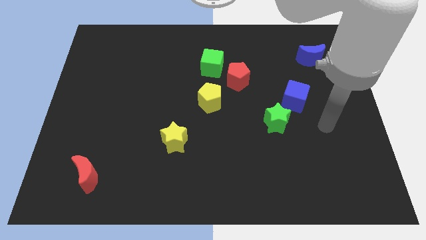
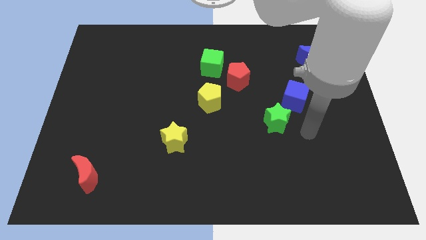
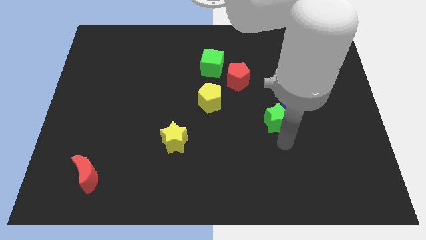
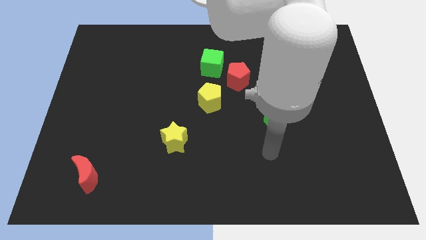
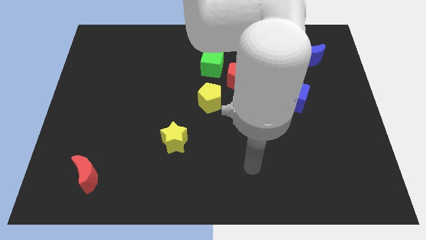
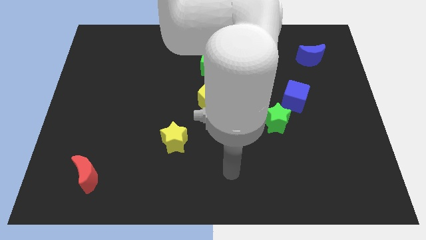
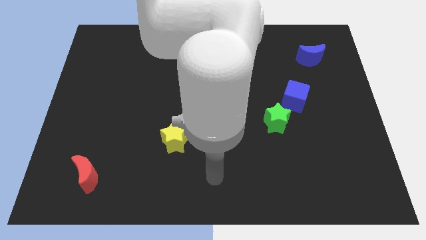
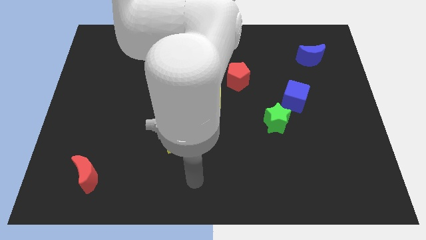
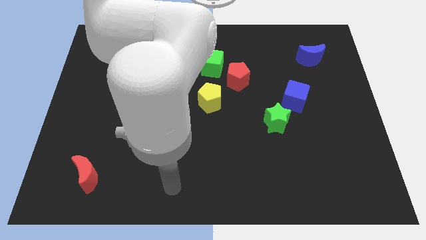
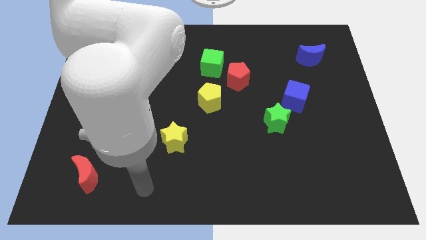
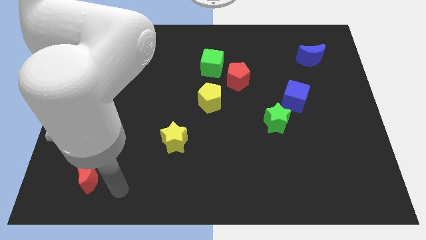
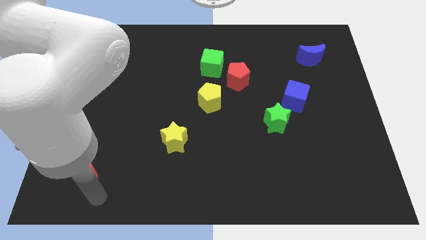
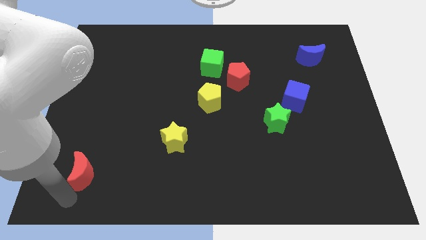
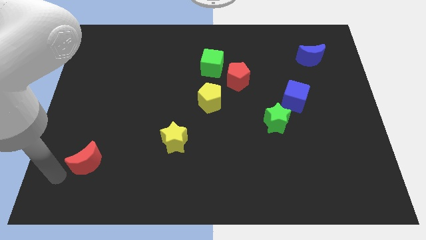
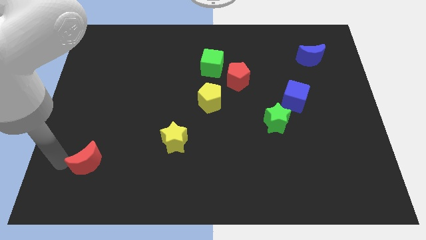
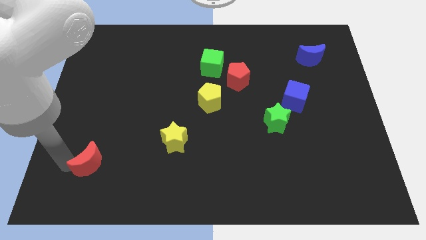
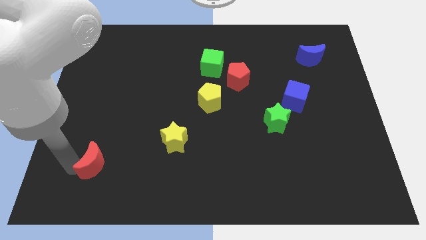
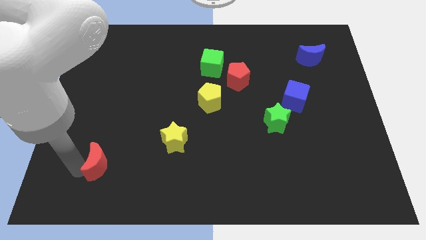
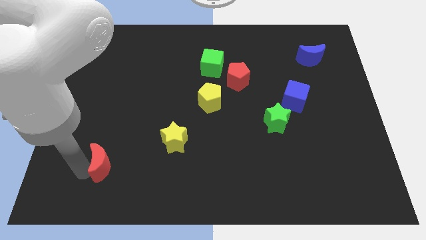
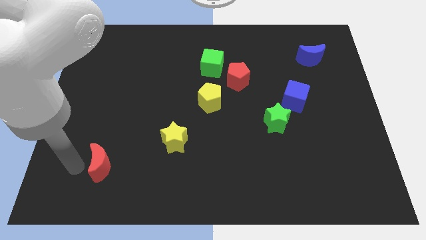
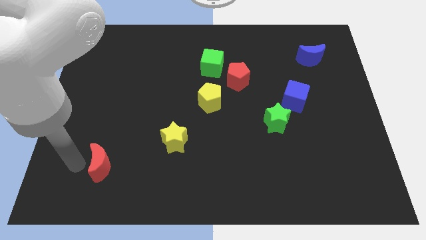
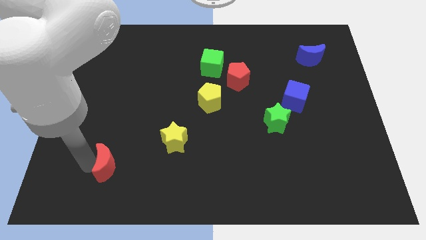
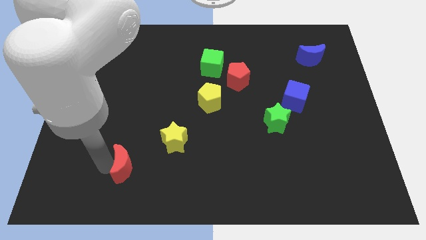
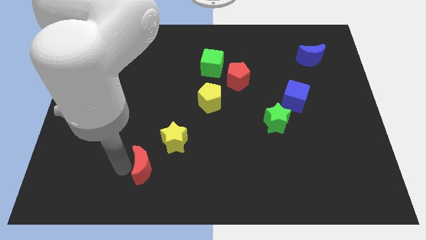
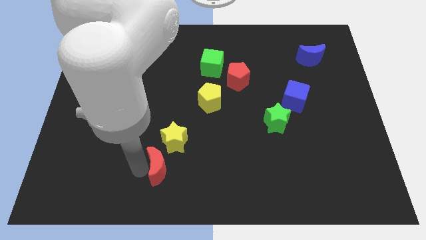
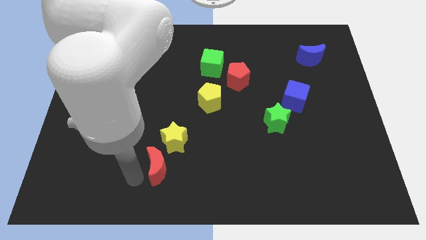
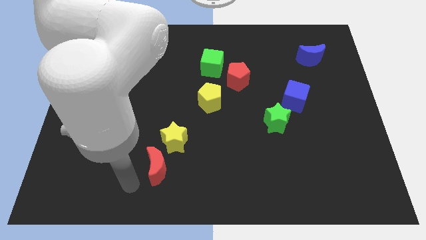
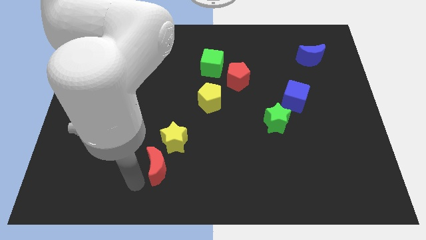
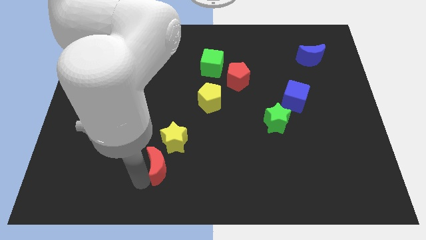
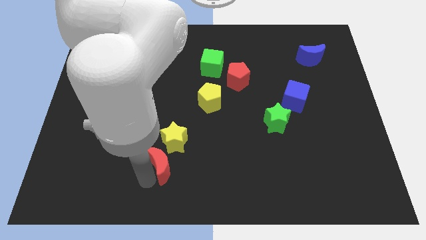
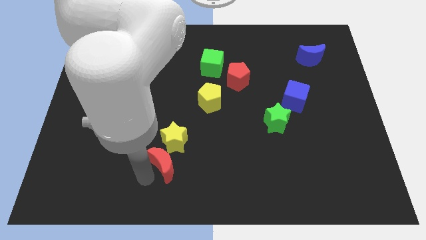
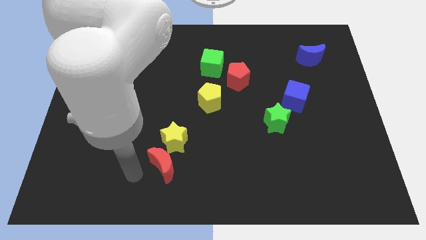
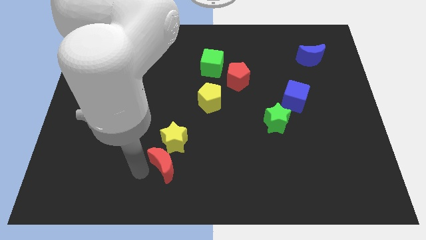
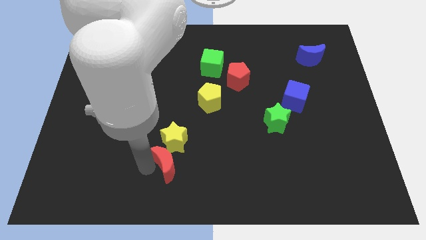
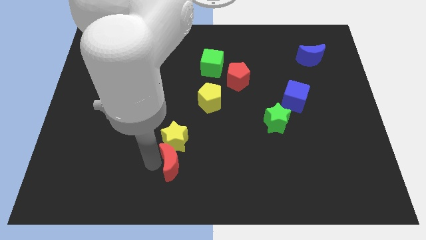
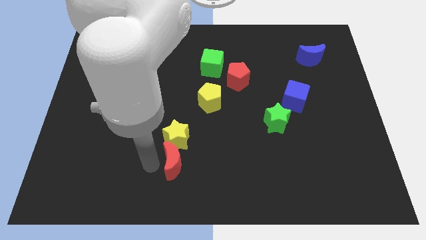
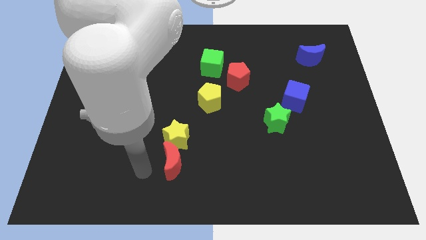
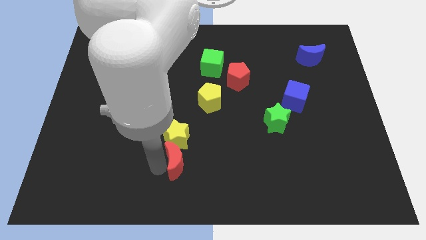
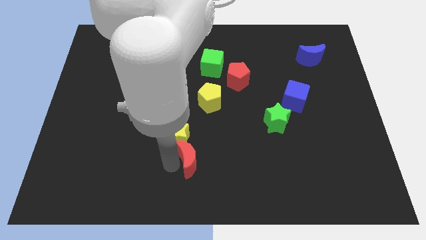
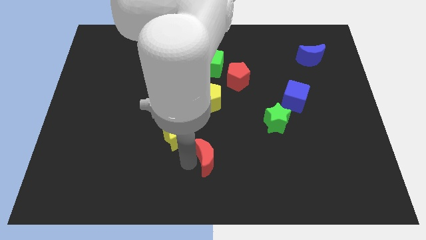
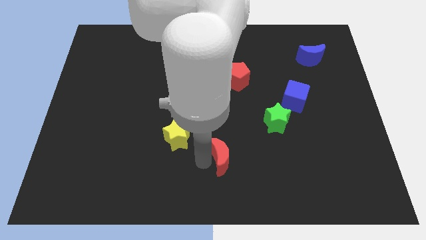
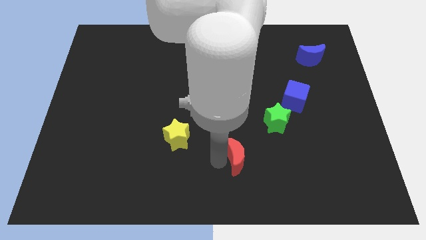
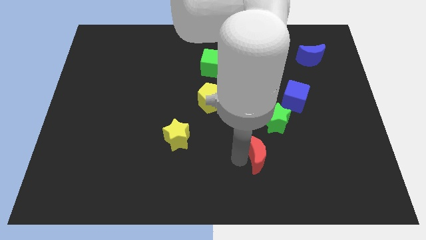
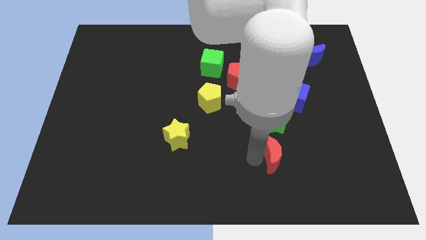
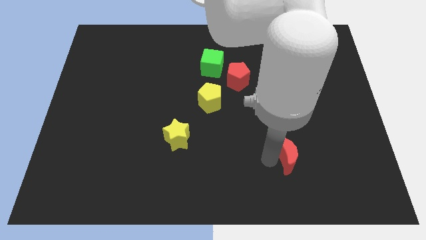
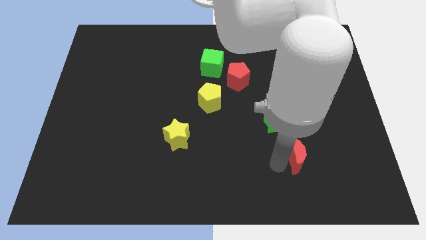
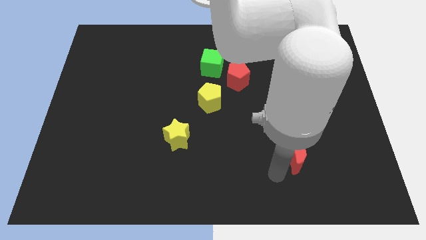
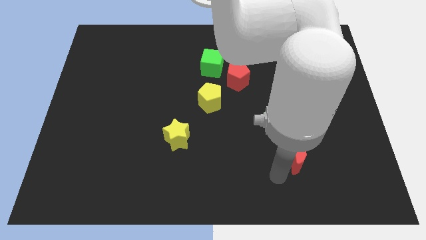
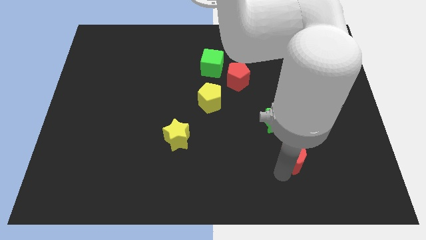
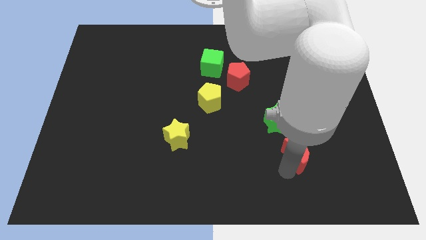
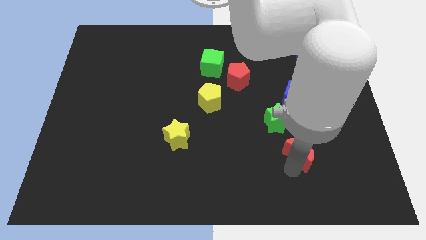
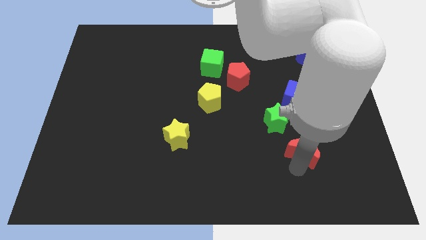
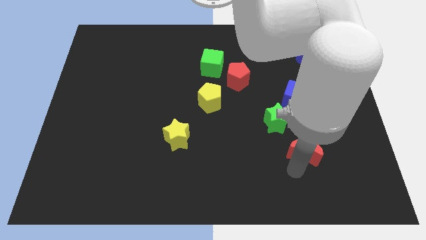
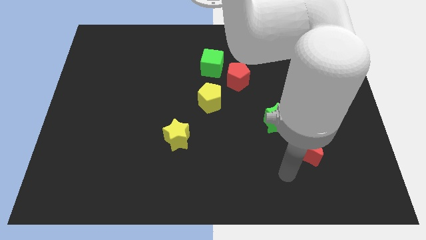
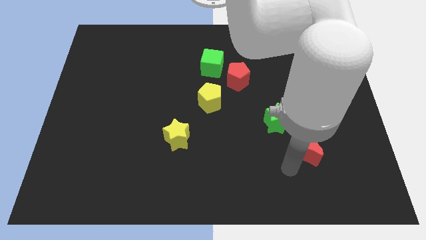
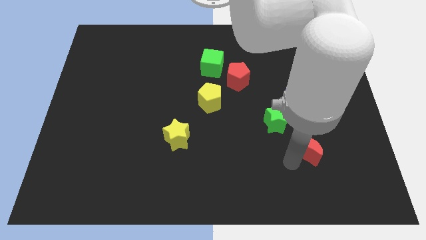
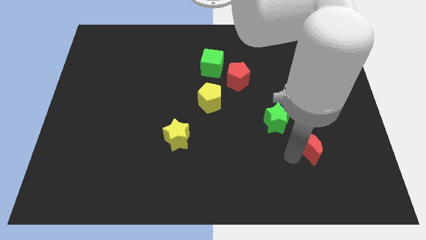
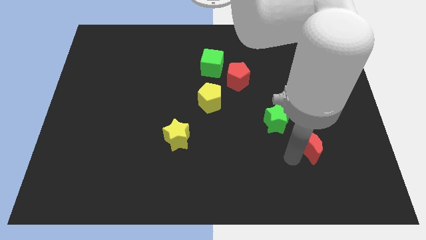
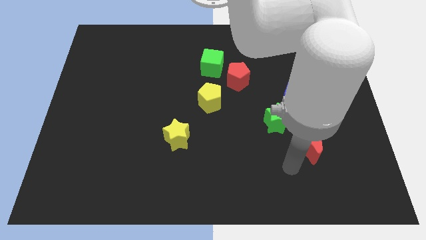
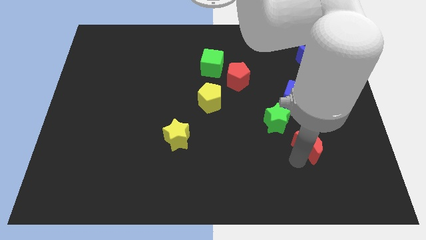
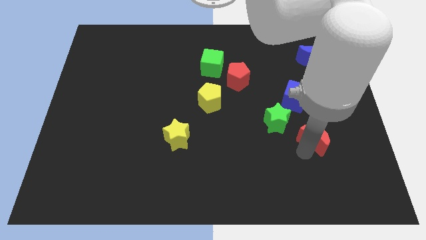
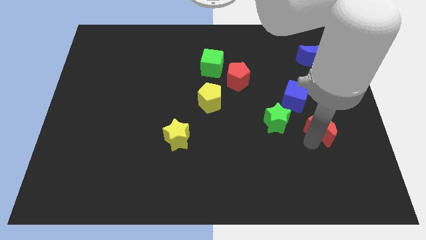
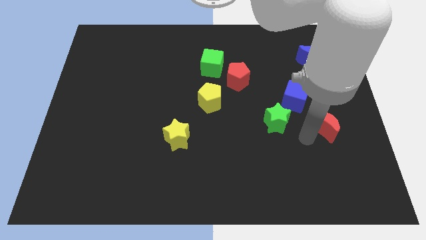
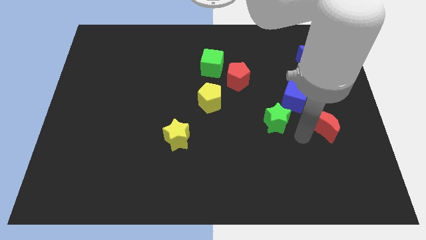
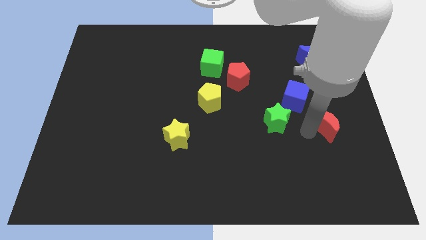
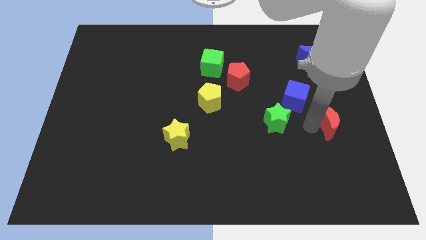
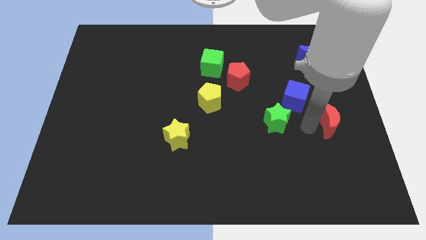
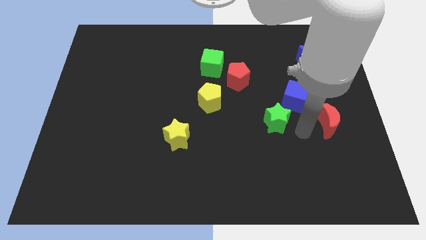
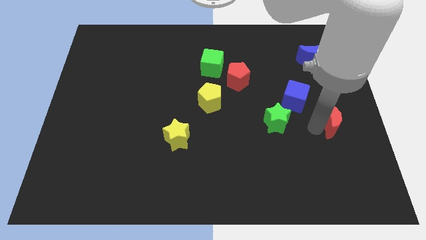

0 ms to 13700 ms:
put the red moon to the center right

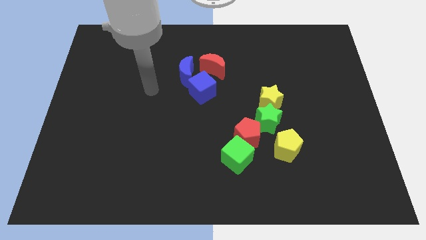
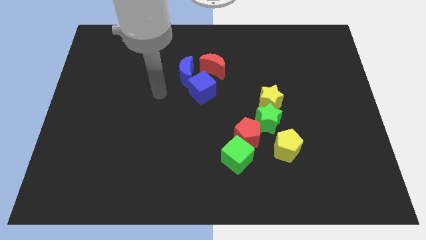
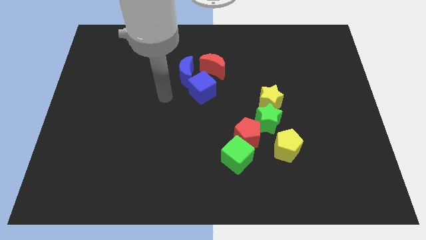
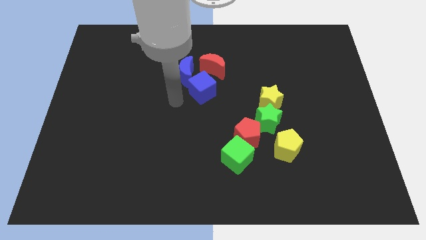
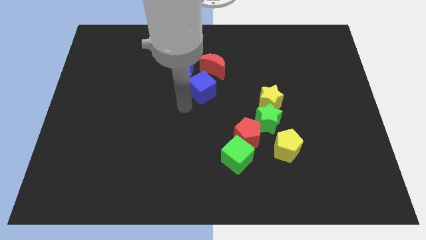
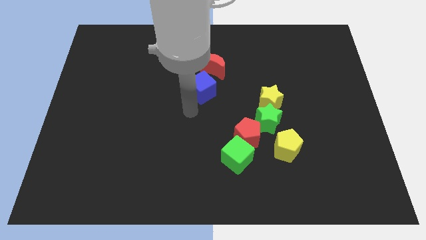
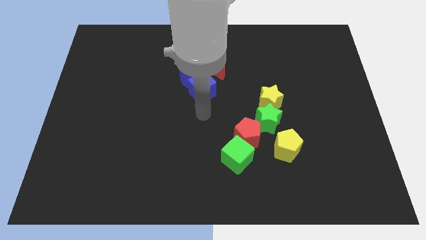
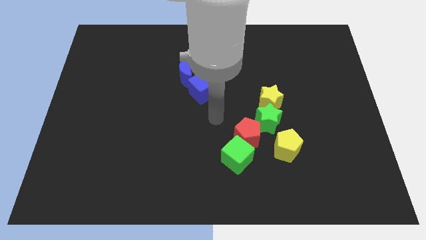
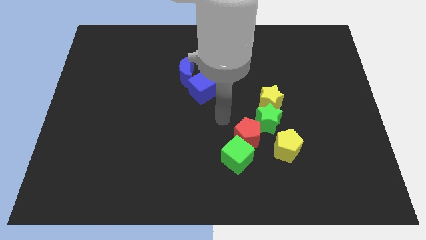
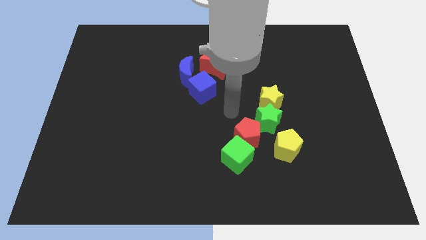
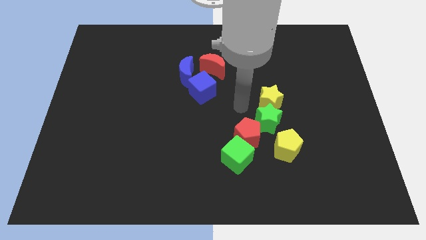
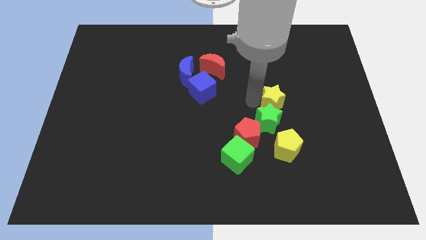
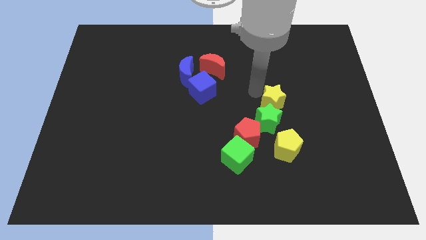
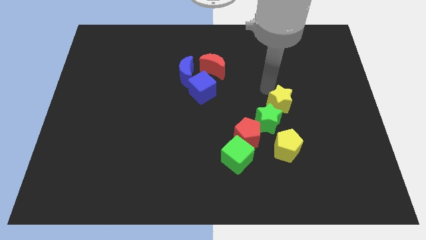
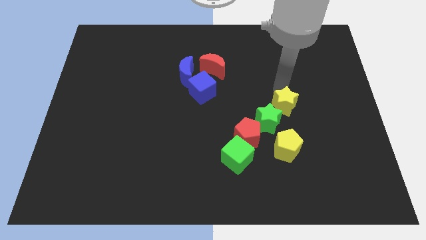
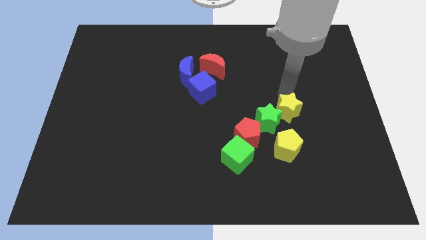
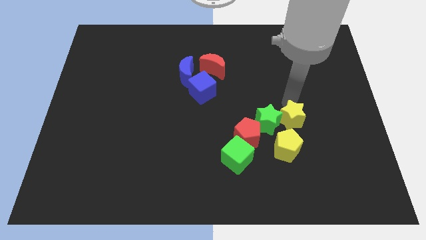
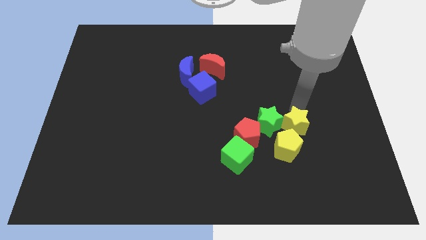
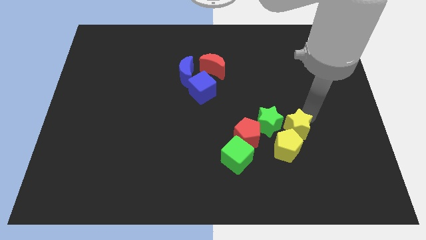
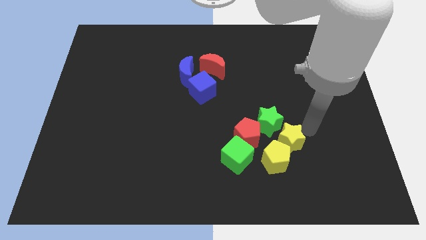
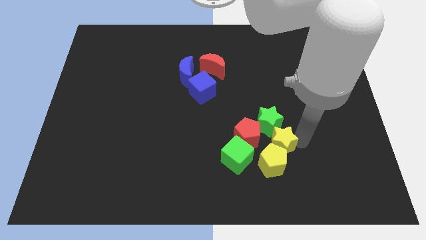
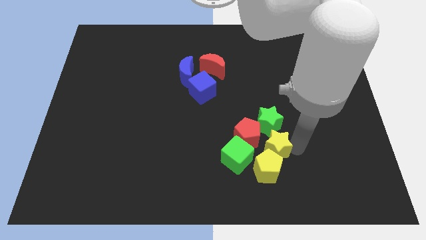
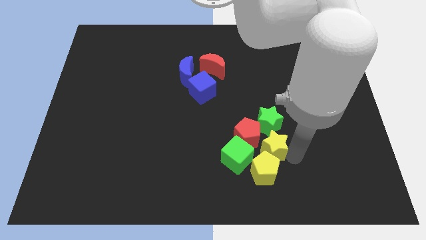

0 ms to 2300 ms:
slide the yellow pentagon to the bottom
